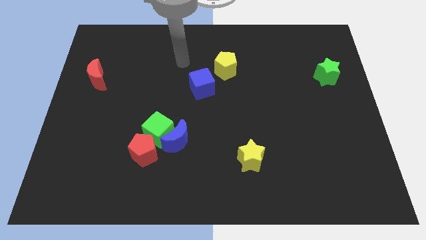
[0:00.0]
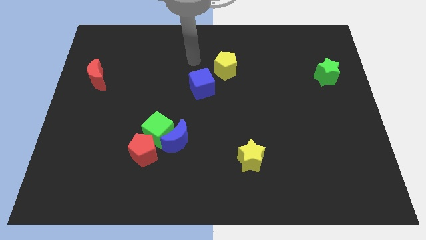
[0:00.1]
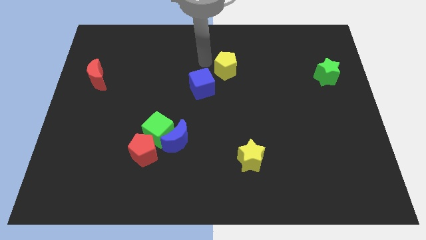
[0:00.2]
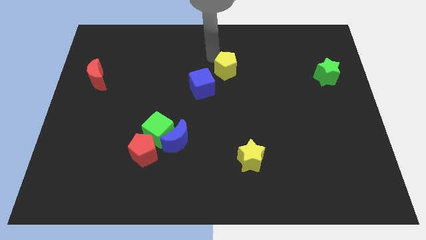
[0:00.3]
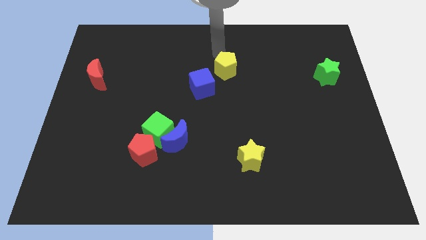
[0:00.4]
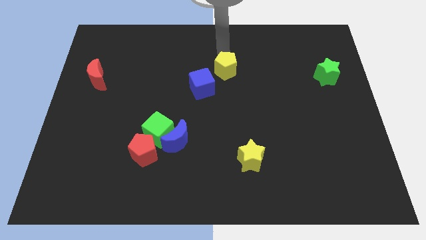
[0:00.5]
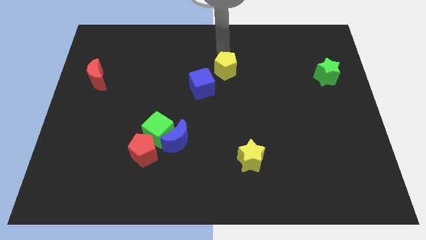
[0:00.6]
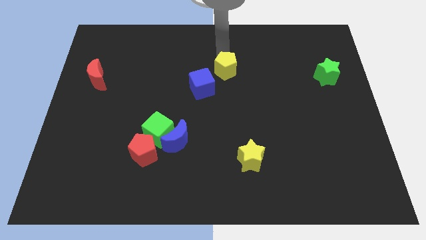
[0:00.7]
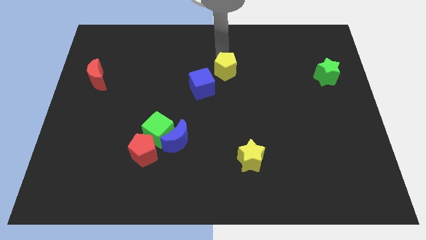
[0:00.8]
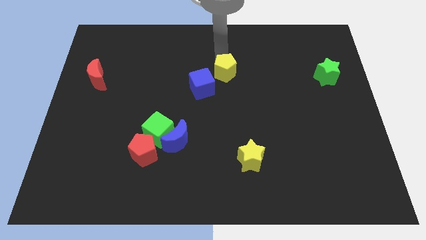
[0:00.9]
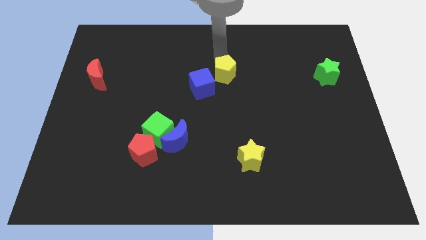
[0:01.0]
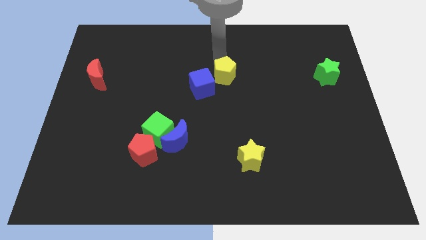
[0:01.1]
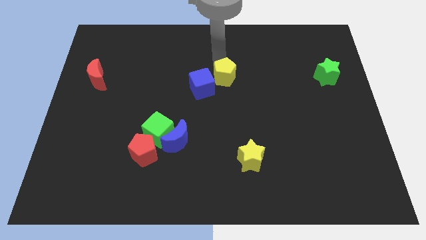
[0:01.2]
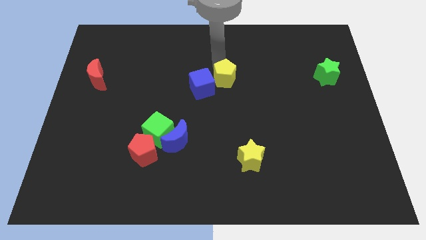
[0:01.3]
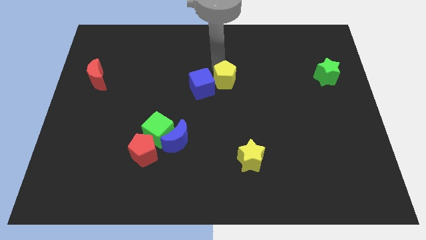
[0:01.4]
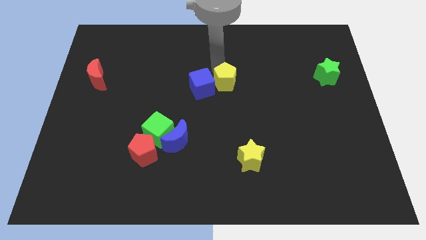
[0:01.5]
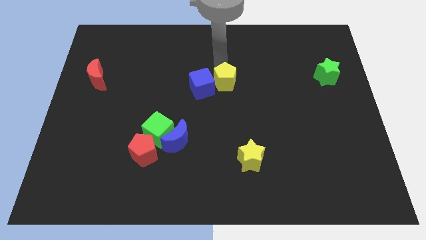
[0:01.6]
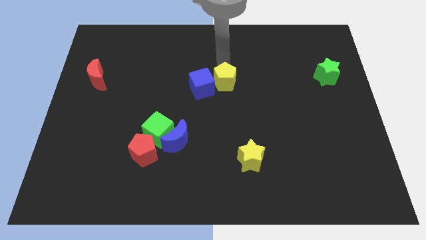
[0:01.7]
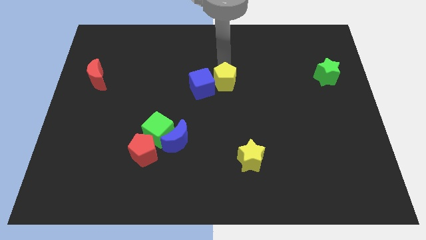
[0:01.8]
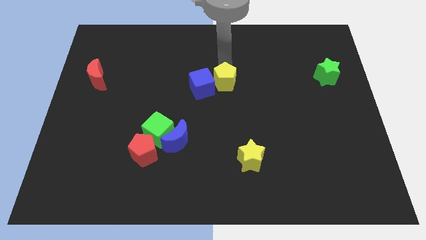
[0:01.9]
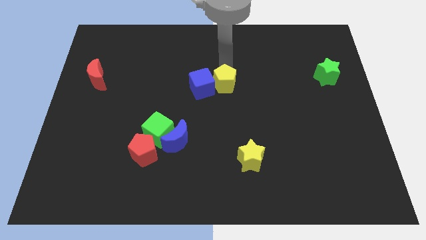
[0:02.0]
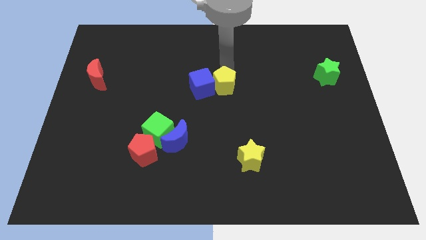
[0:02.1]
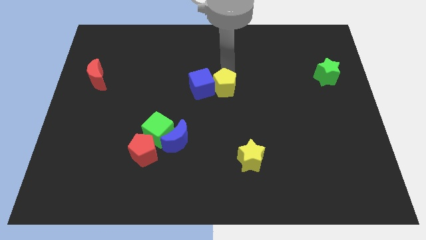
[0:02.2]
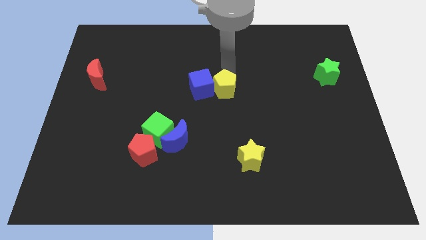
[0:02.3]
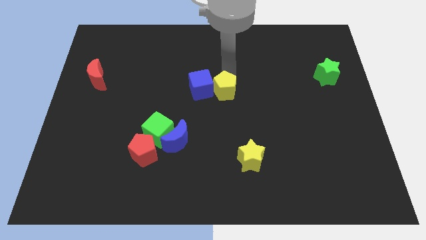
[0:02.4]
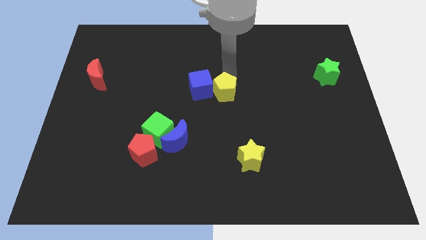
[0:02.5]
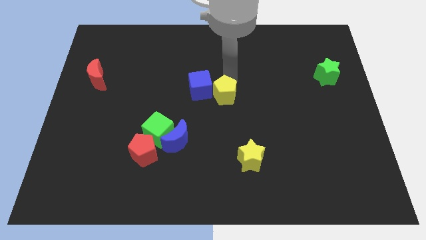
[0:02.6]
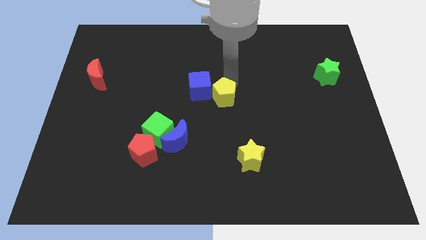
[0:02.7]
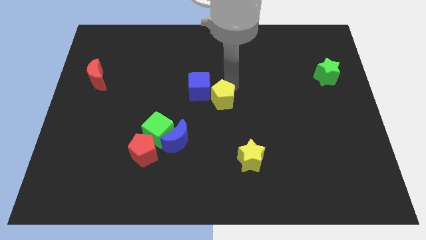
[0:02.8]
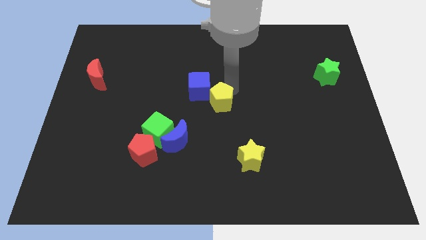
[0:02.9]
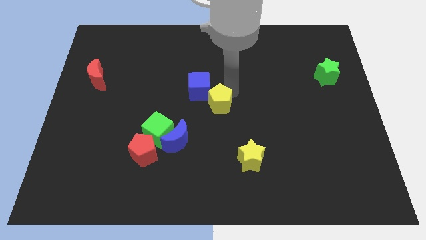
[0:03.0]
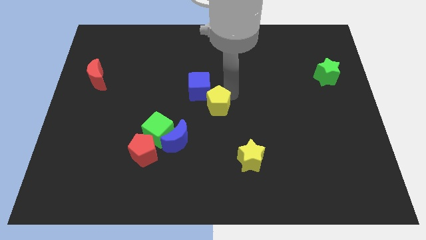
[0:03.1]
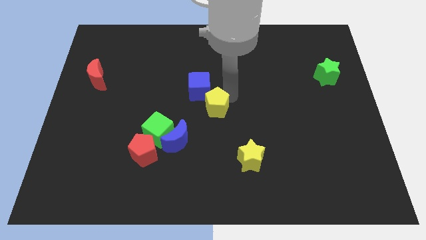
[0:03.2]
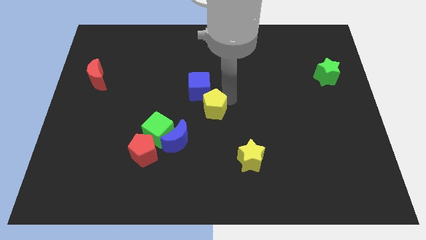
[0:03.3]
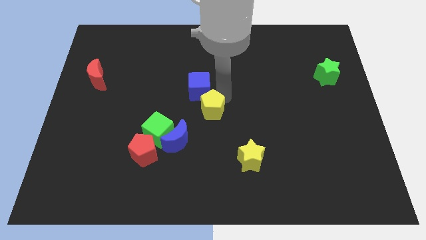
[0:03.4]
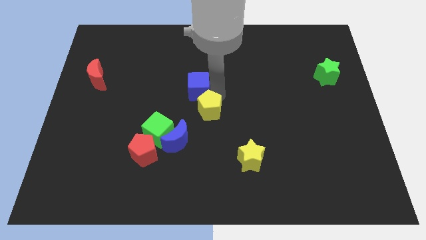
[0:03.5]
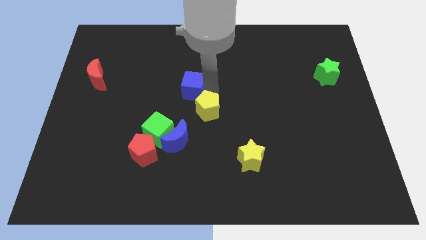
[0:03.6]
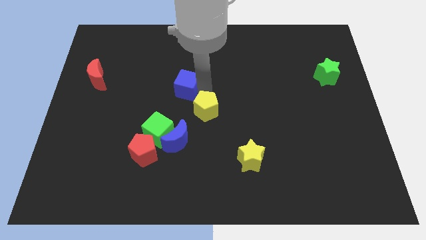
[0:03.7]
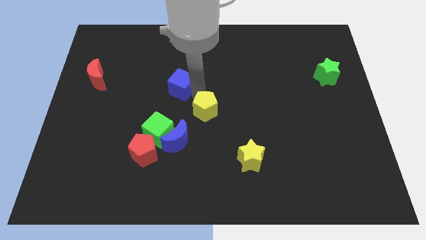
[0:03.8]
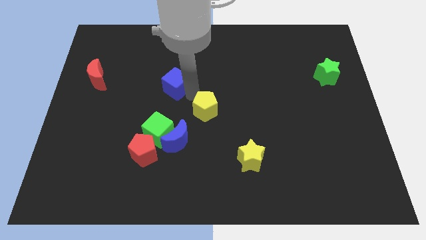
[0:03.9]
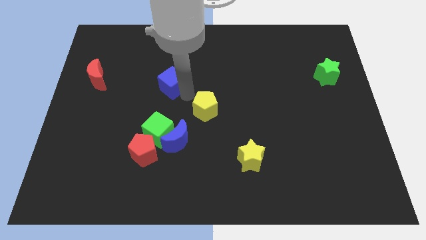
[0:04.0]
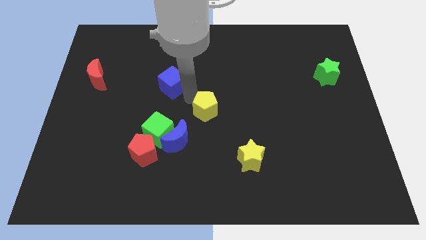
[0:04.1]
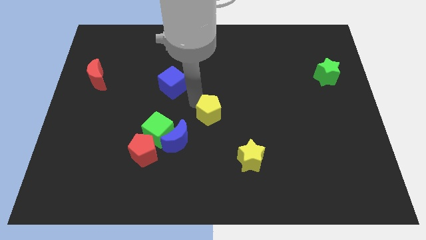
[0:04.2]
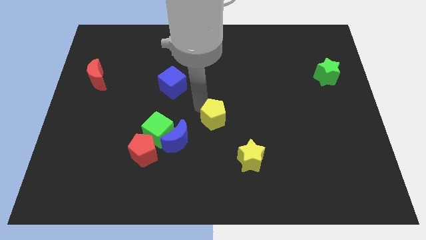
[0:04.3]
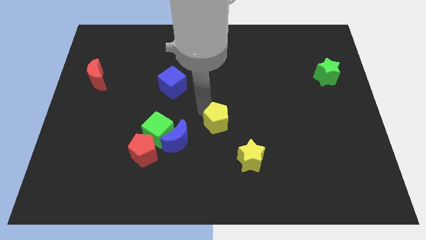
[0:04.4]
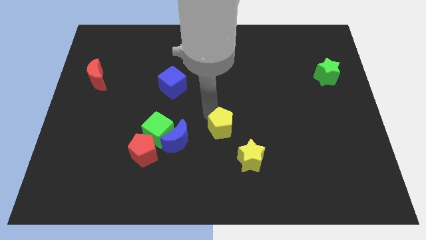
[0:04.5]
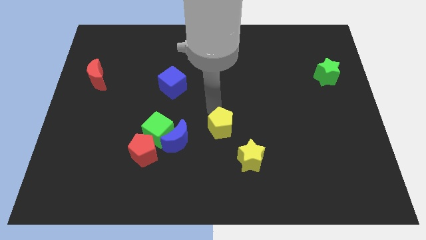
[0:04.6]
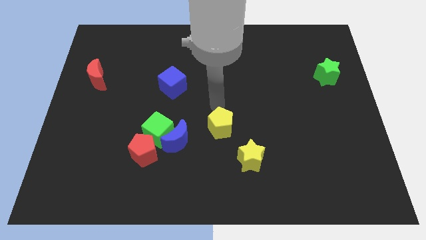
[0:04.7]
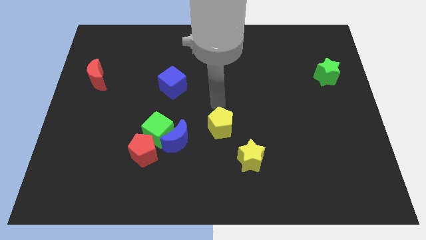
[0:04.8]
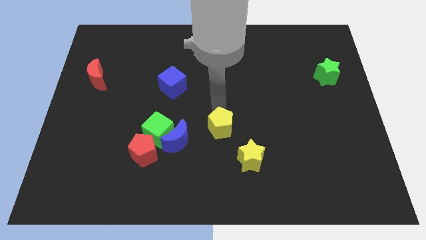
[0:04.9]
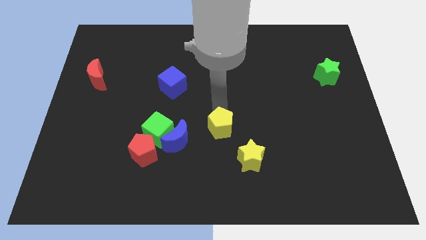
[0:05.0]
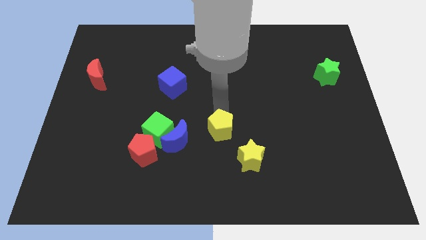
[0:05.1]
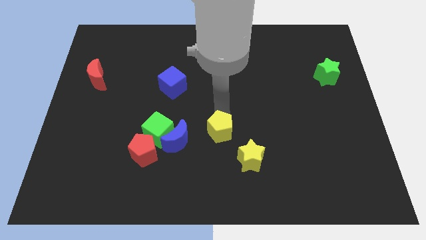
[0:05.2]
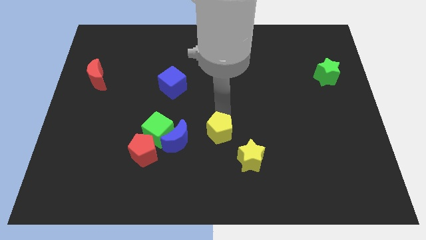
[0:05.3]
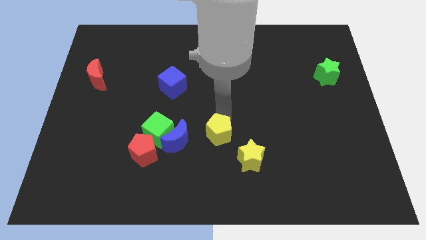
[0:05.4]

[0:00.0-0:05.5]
move the yellow pentagon down

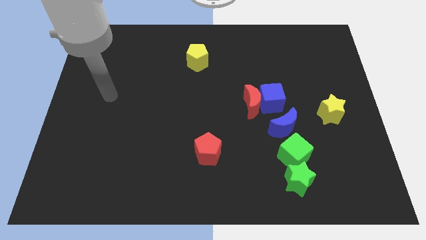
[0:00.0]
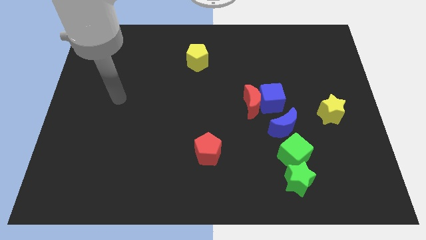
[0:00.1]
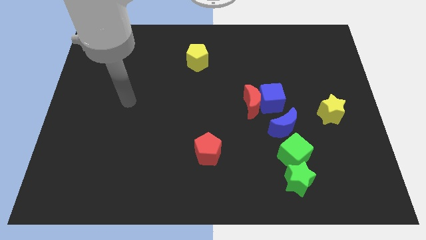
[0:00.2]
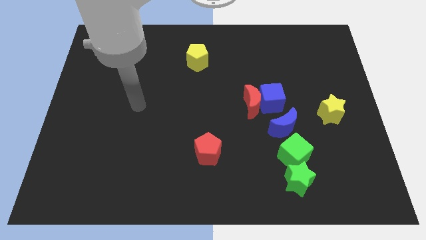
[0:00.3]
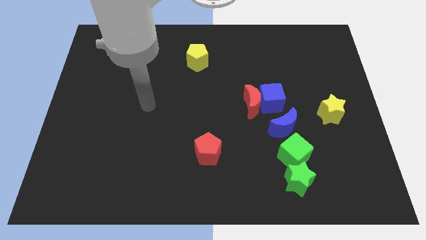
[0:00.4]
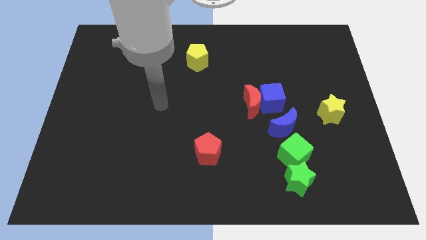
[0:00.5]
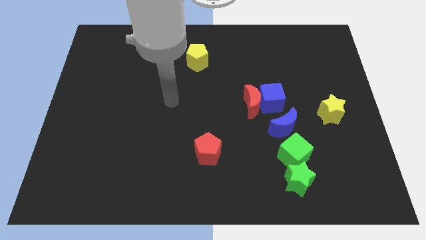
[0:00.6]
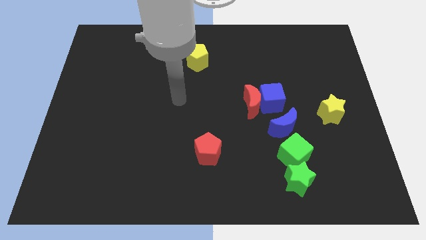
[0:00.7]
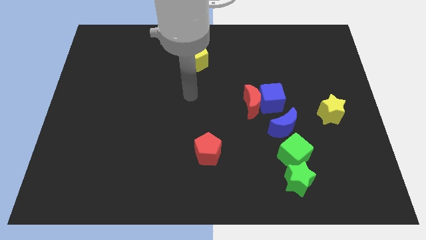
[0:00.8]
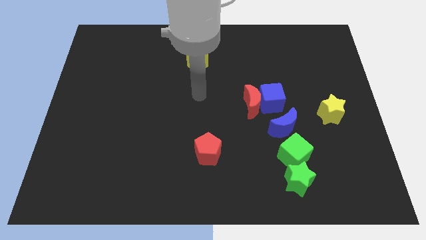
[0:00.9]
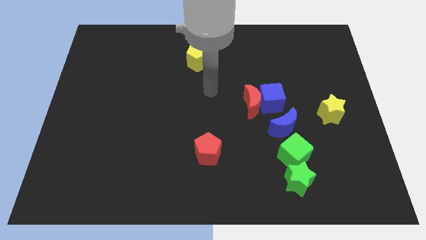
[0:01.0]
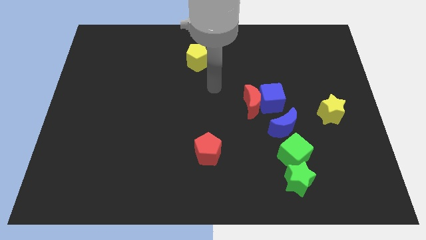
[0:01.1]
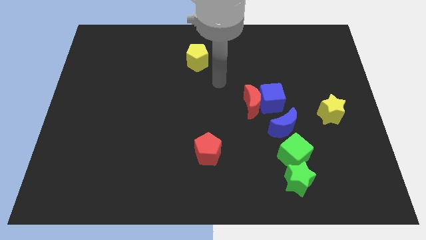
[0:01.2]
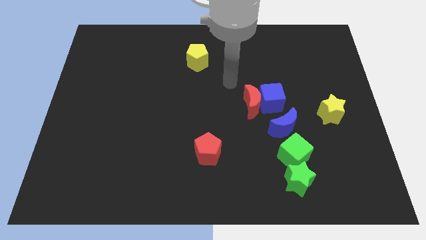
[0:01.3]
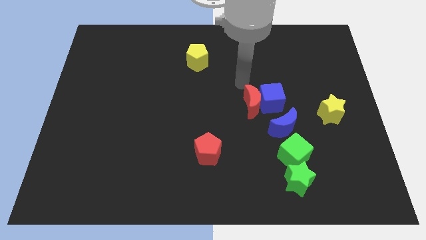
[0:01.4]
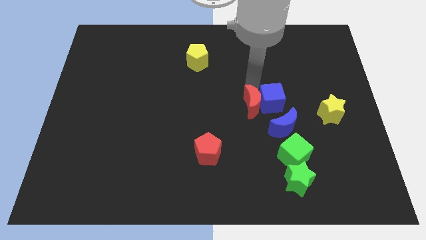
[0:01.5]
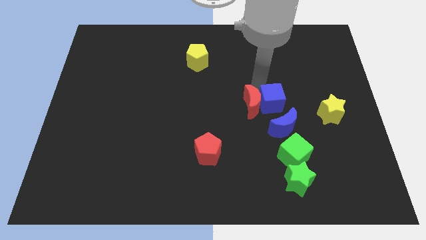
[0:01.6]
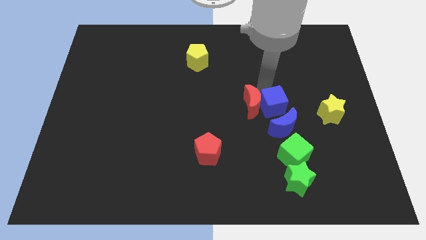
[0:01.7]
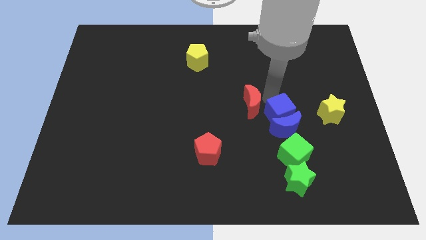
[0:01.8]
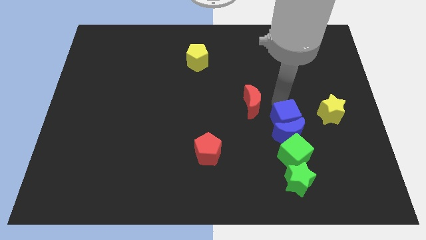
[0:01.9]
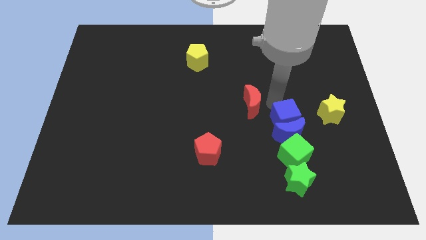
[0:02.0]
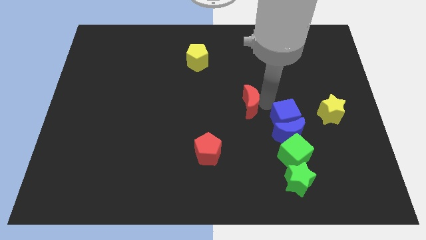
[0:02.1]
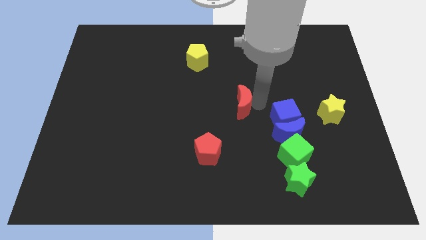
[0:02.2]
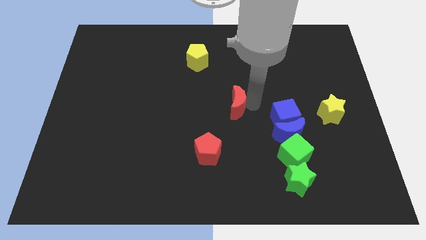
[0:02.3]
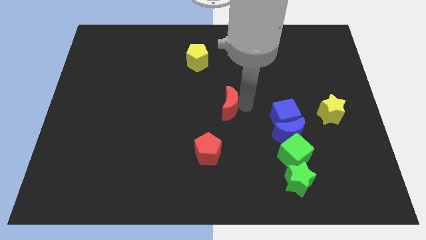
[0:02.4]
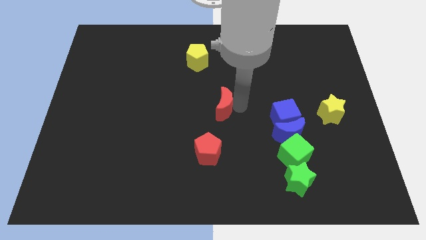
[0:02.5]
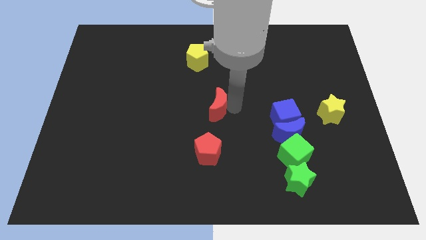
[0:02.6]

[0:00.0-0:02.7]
slightly push the red moon to the left

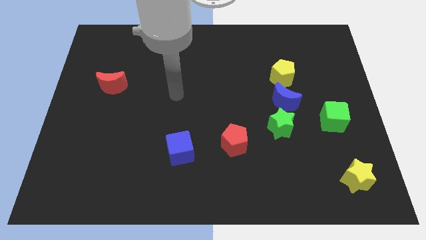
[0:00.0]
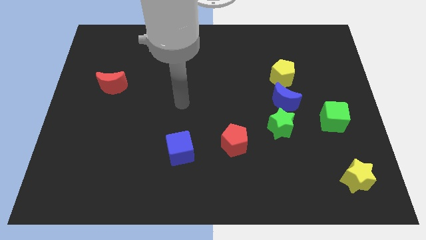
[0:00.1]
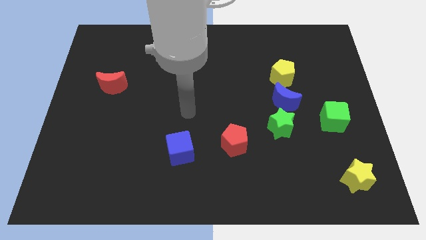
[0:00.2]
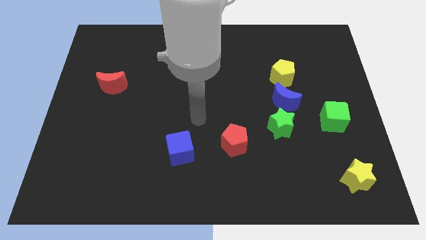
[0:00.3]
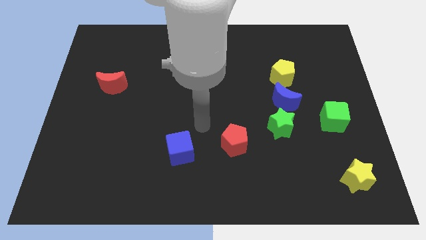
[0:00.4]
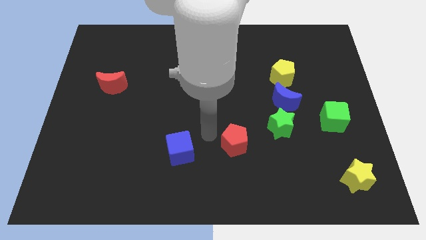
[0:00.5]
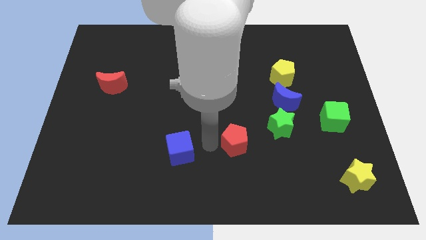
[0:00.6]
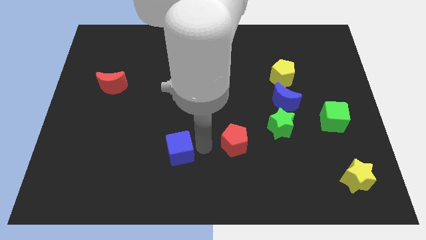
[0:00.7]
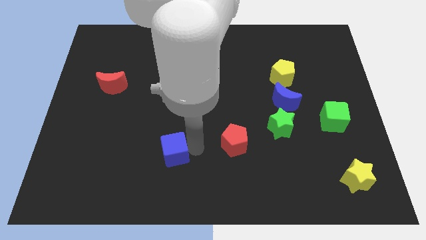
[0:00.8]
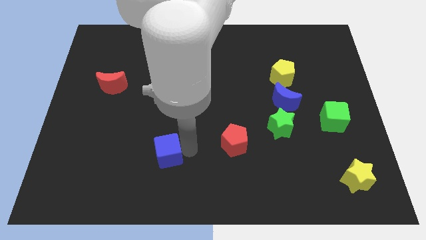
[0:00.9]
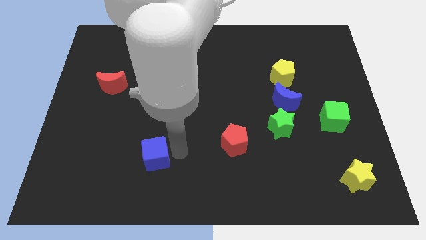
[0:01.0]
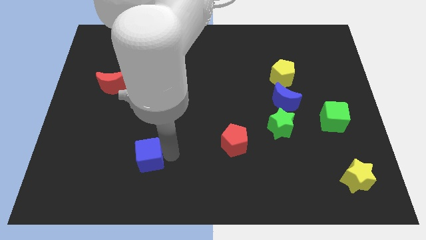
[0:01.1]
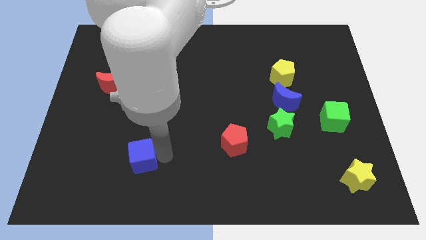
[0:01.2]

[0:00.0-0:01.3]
move the blue cube slightly to the left
